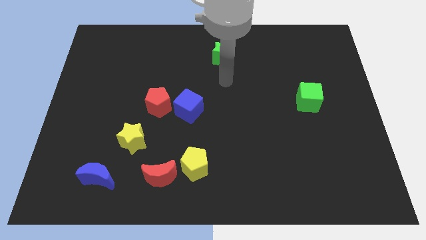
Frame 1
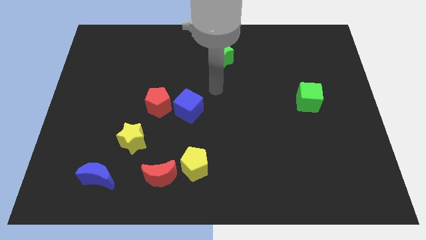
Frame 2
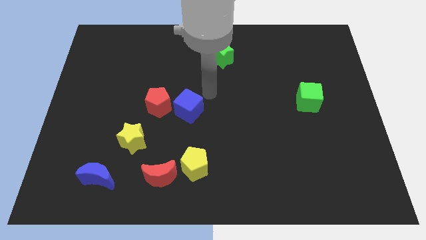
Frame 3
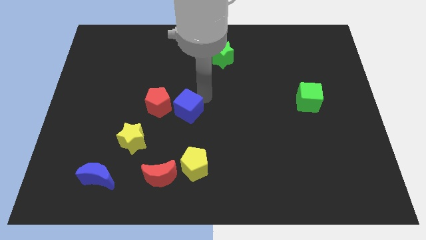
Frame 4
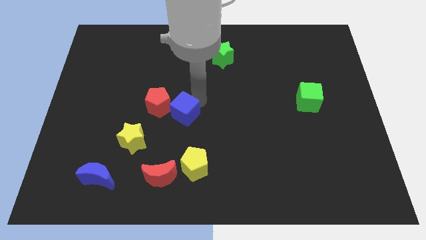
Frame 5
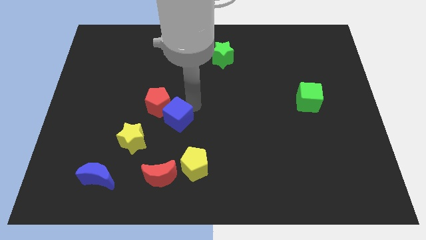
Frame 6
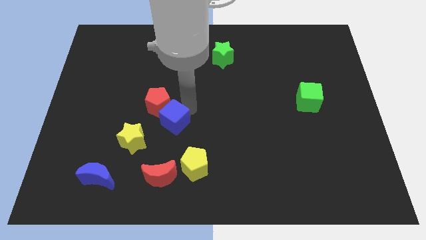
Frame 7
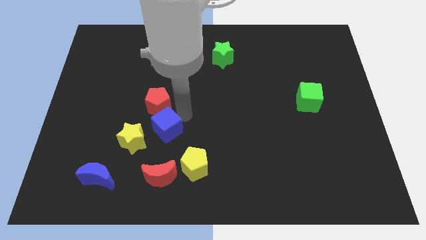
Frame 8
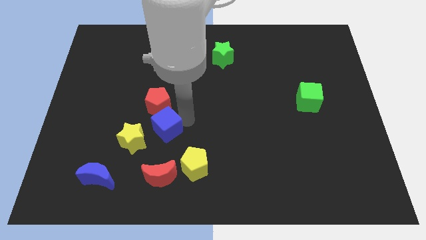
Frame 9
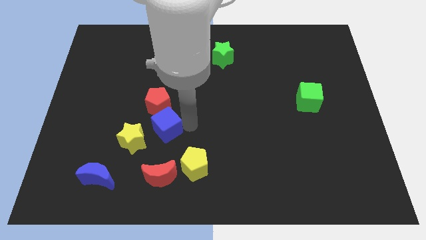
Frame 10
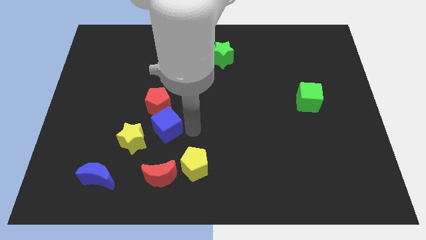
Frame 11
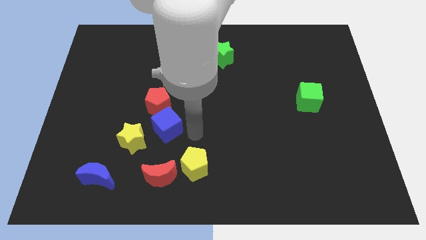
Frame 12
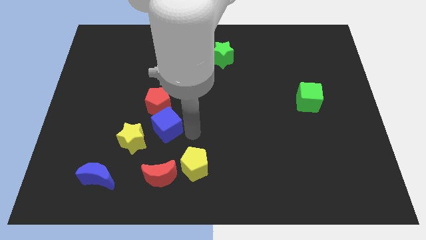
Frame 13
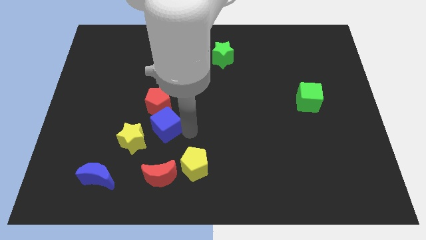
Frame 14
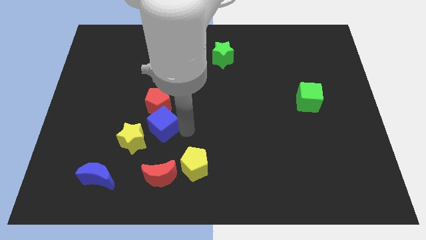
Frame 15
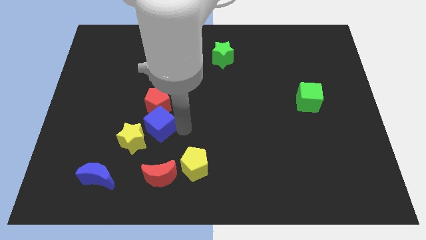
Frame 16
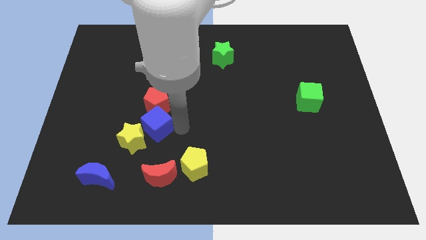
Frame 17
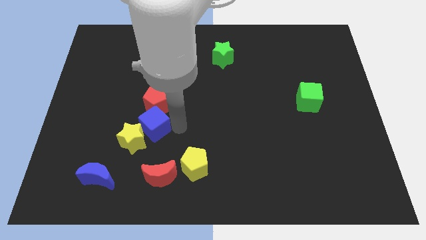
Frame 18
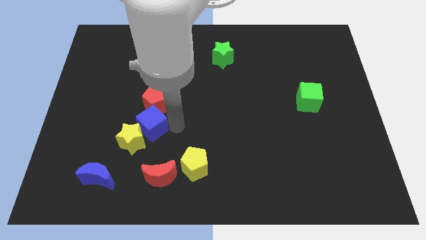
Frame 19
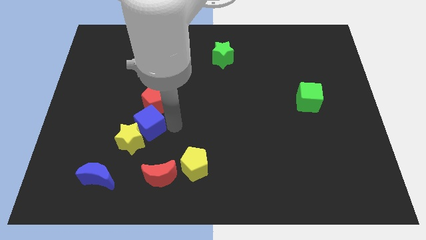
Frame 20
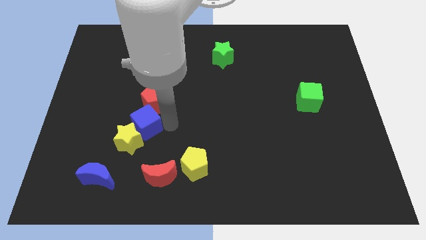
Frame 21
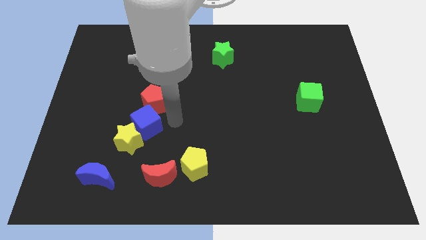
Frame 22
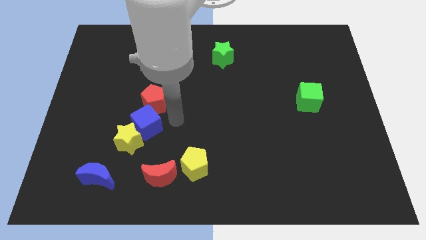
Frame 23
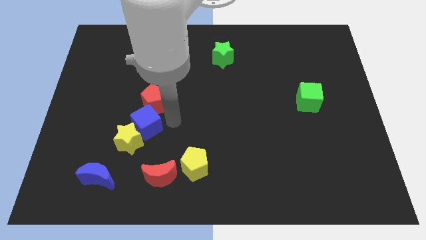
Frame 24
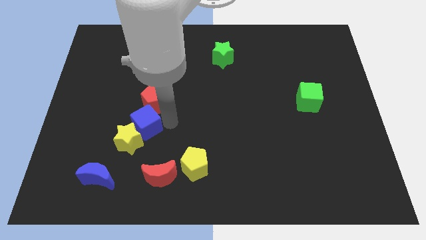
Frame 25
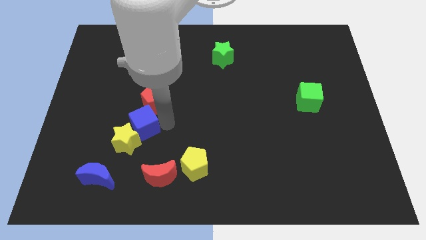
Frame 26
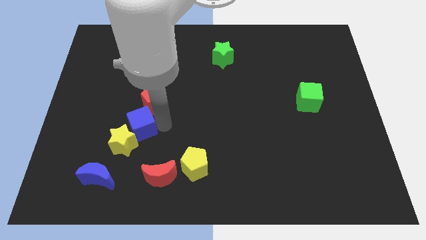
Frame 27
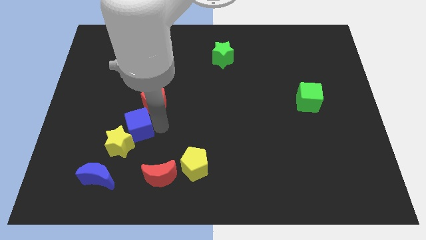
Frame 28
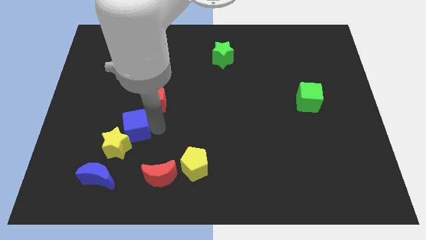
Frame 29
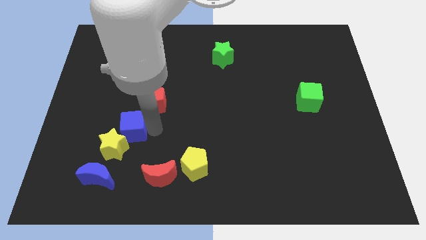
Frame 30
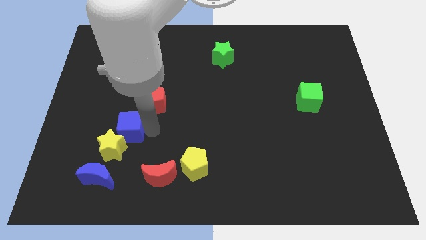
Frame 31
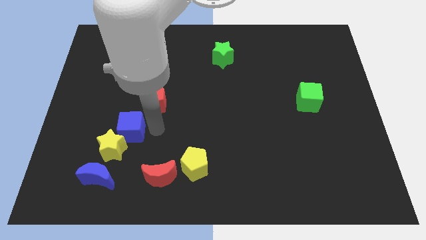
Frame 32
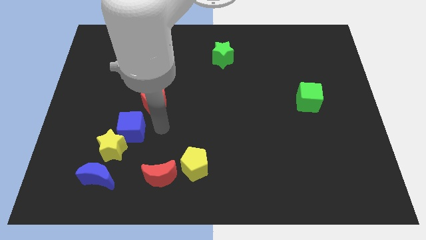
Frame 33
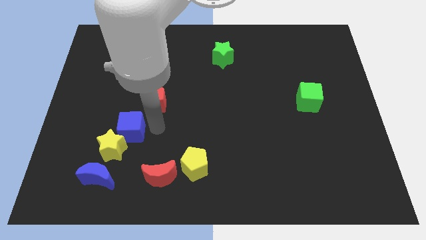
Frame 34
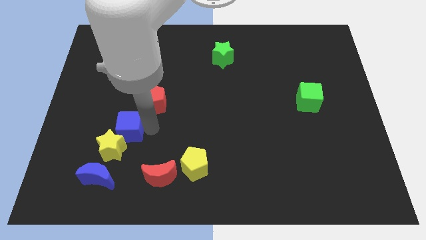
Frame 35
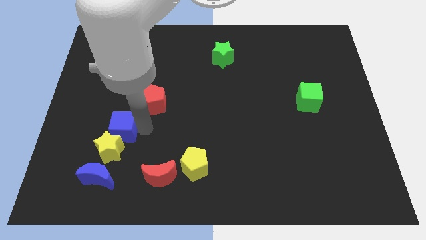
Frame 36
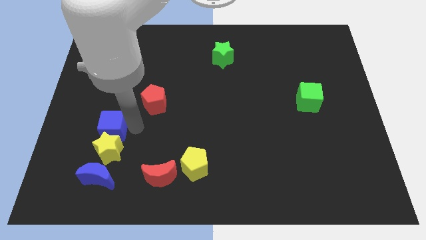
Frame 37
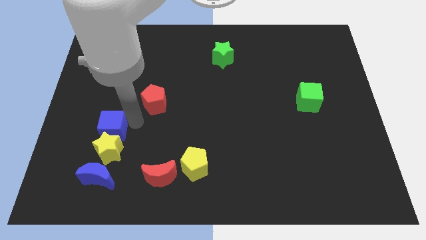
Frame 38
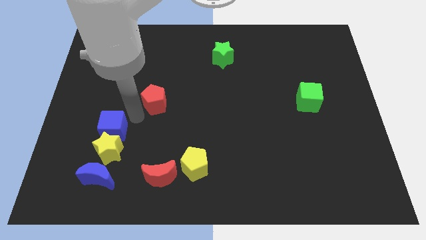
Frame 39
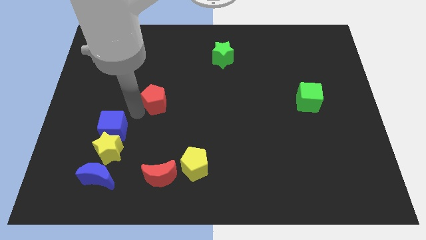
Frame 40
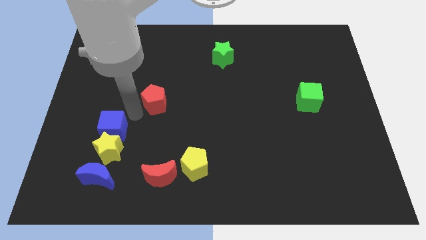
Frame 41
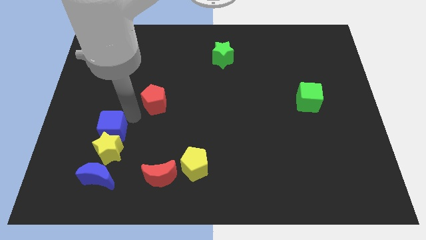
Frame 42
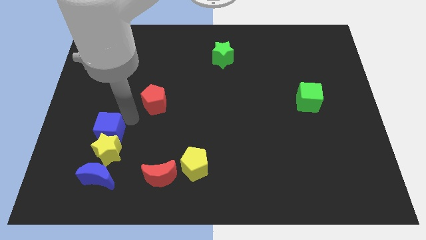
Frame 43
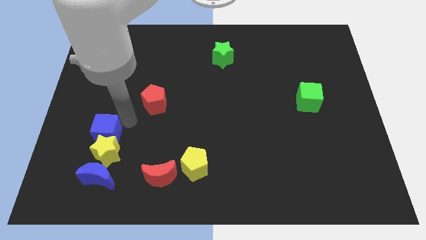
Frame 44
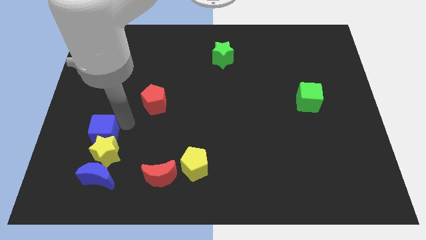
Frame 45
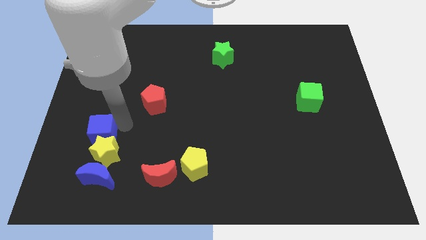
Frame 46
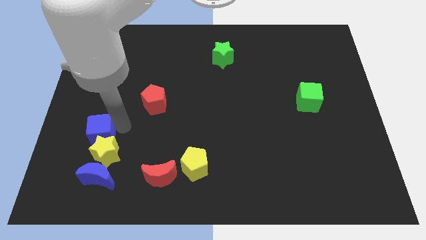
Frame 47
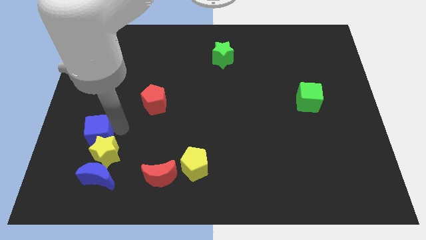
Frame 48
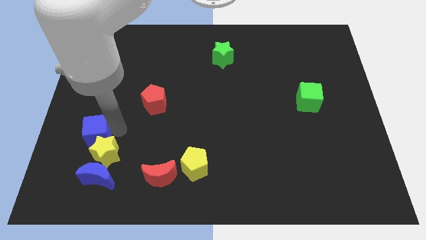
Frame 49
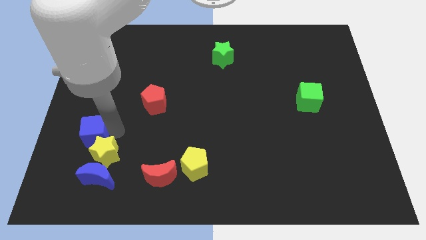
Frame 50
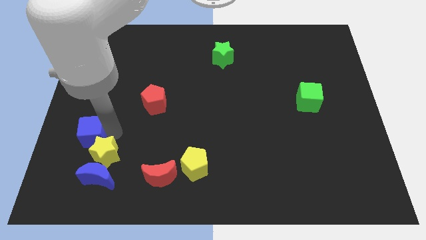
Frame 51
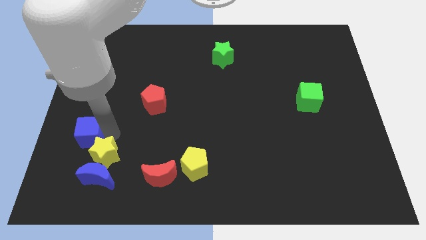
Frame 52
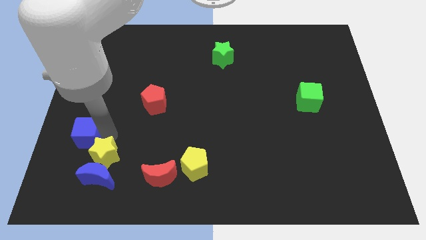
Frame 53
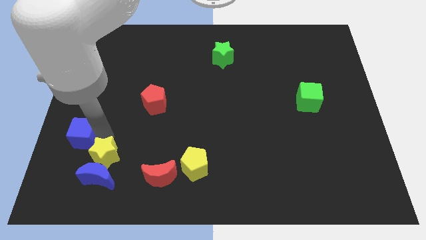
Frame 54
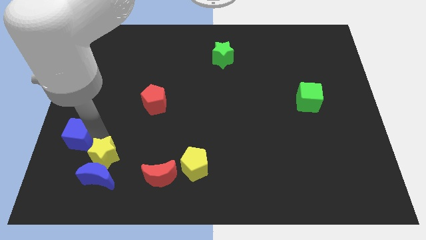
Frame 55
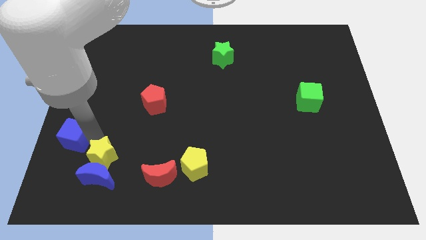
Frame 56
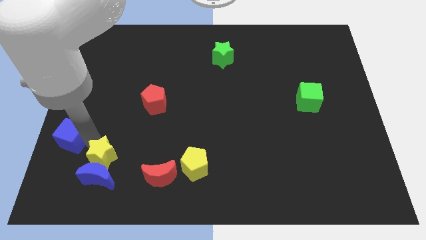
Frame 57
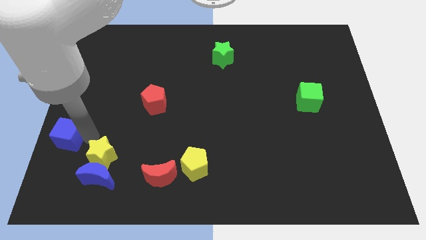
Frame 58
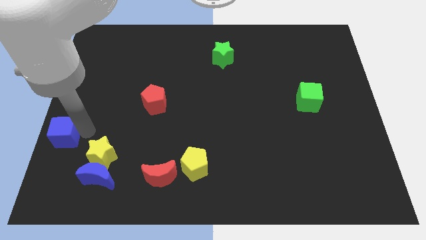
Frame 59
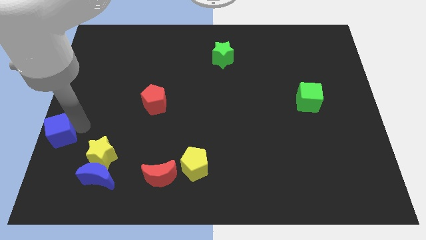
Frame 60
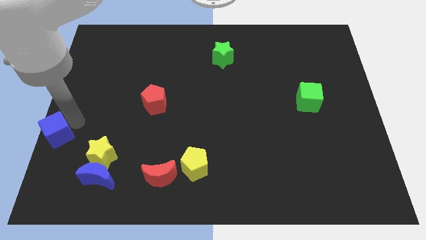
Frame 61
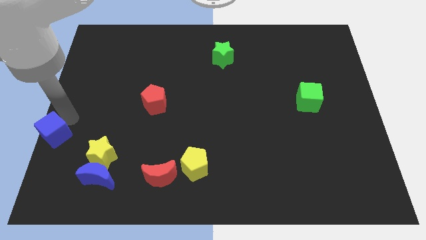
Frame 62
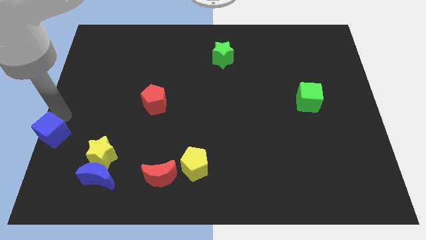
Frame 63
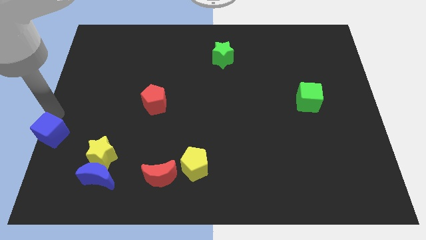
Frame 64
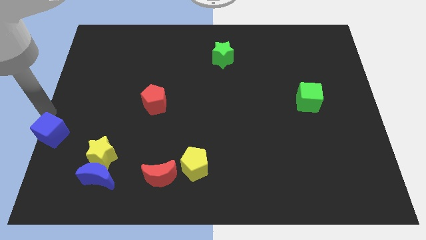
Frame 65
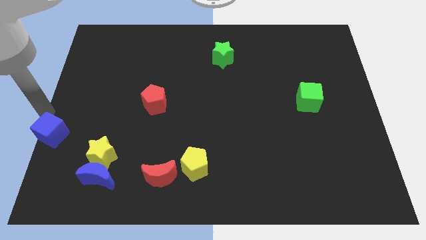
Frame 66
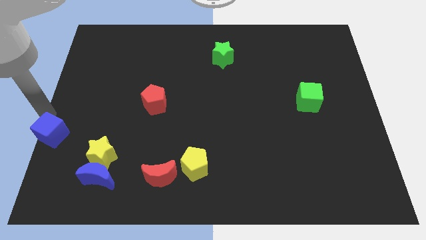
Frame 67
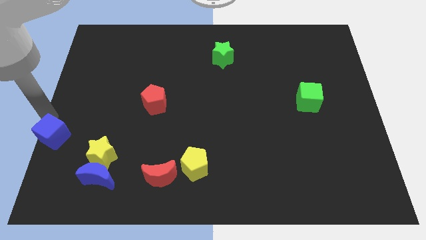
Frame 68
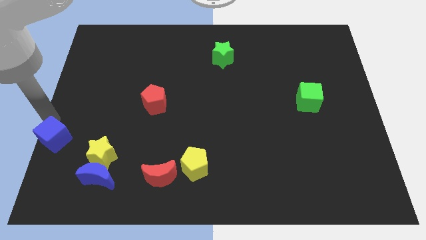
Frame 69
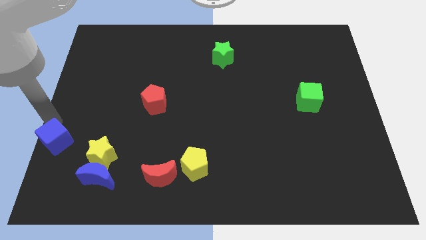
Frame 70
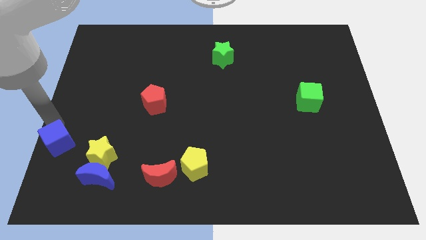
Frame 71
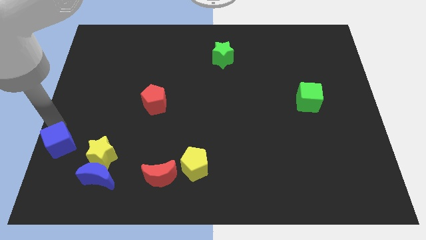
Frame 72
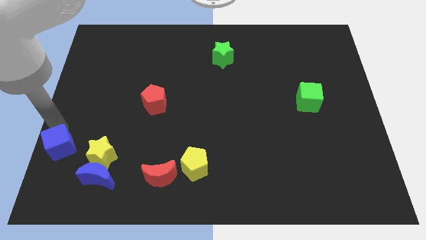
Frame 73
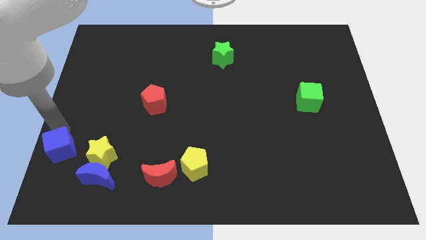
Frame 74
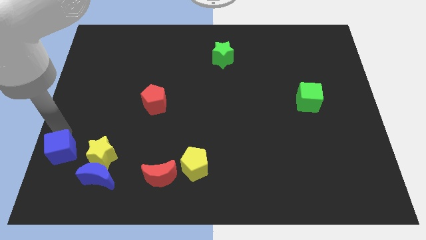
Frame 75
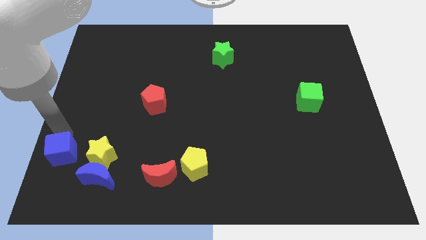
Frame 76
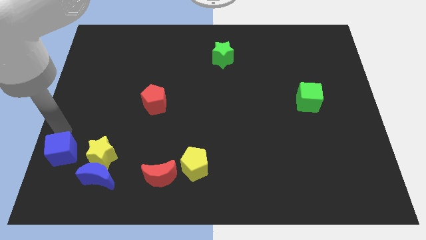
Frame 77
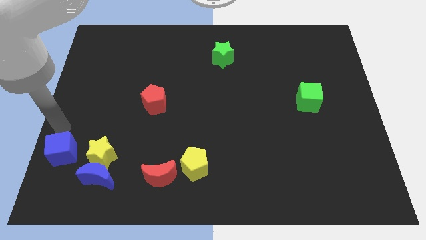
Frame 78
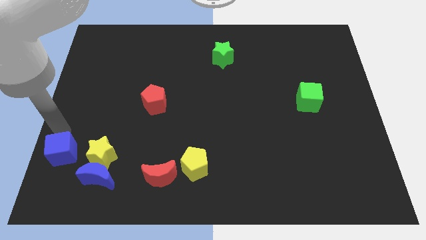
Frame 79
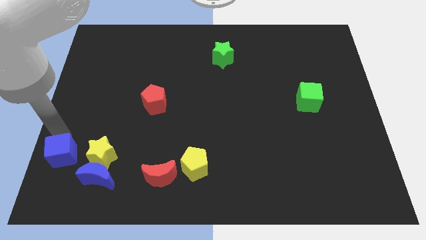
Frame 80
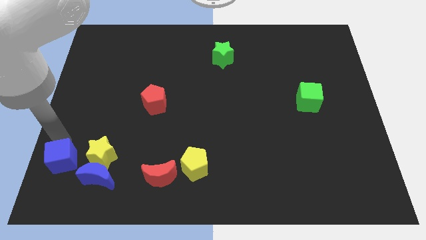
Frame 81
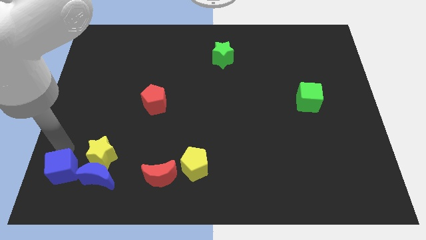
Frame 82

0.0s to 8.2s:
slide the blue cube to the bottom left
